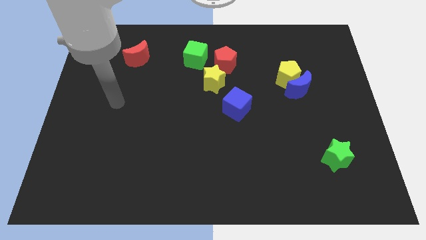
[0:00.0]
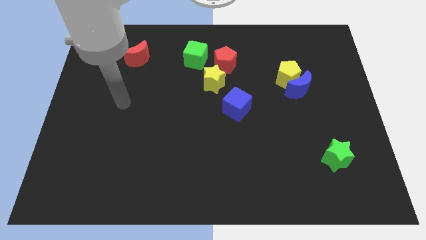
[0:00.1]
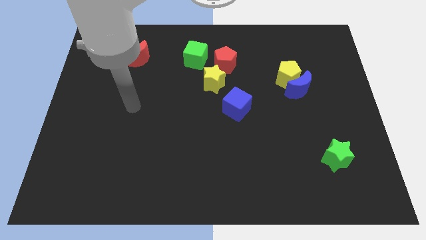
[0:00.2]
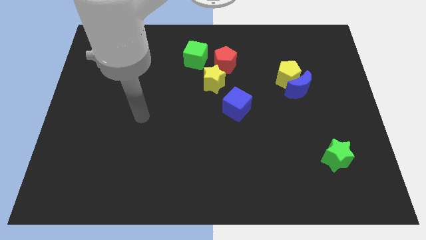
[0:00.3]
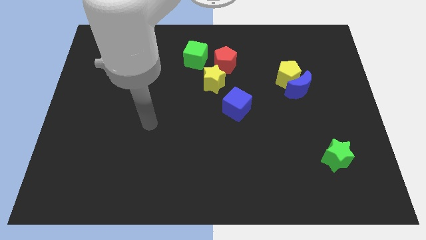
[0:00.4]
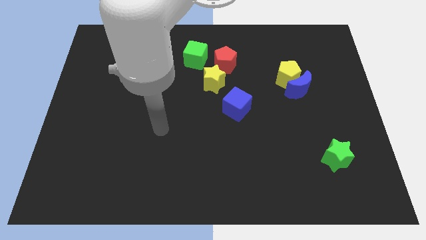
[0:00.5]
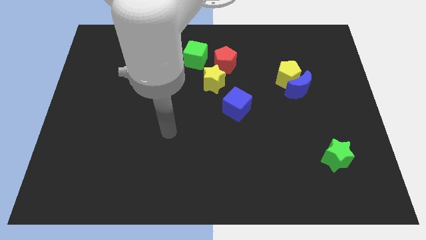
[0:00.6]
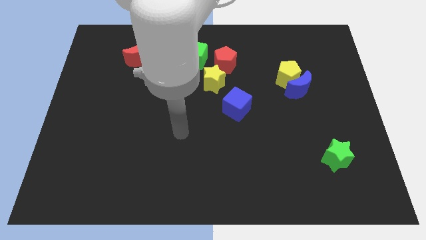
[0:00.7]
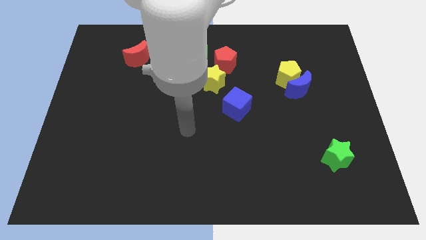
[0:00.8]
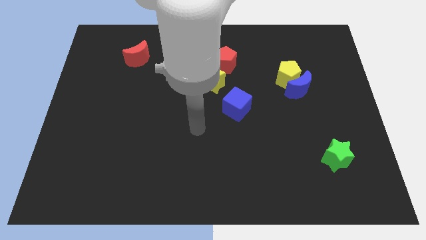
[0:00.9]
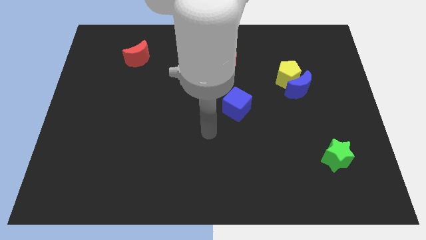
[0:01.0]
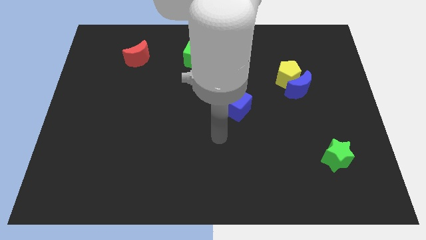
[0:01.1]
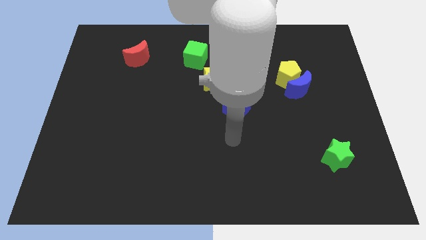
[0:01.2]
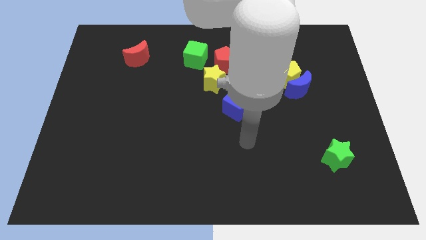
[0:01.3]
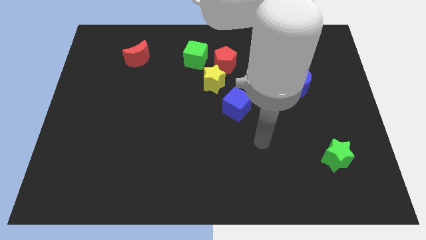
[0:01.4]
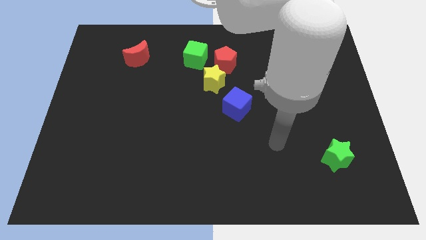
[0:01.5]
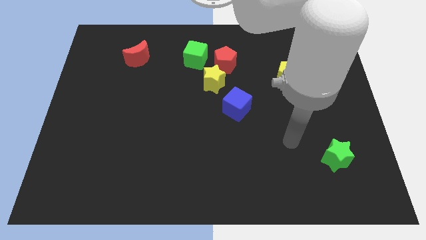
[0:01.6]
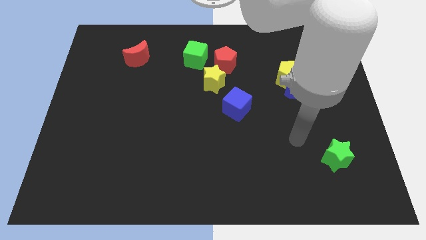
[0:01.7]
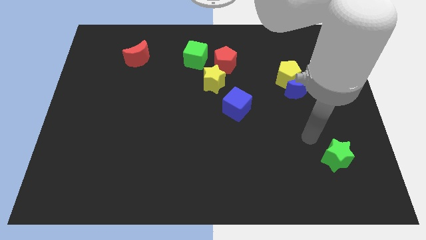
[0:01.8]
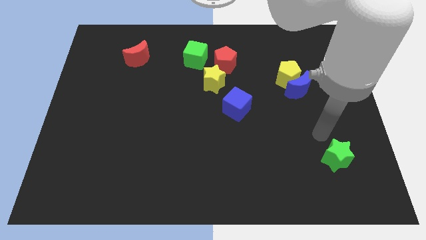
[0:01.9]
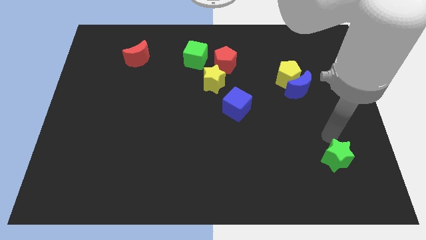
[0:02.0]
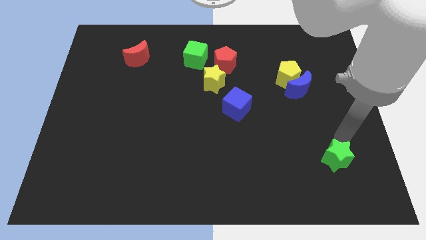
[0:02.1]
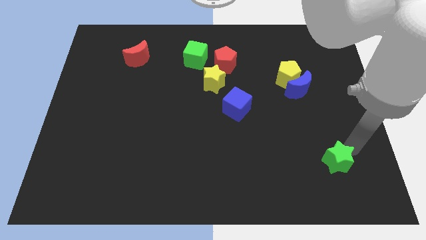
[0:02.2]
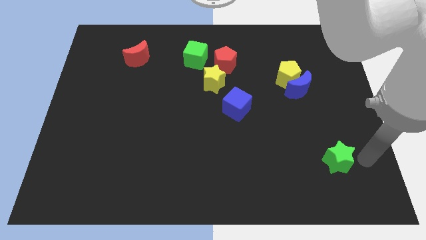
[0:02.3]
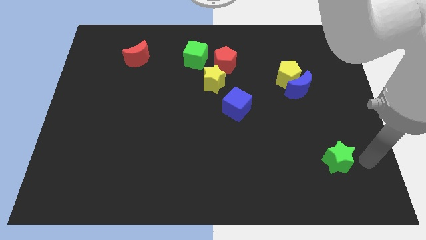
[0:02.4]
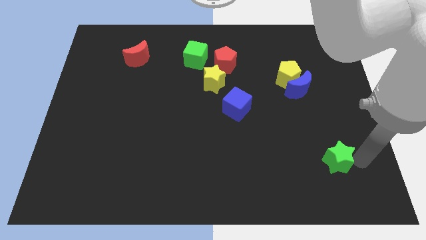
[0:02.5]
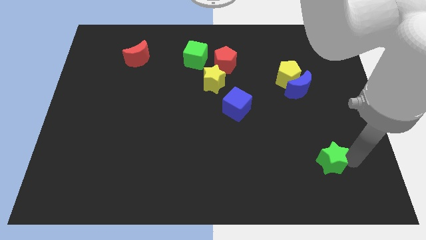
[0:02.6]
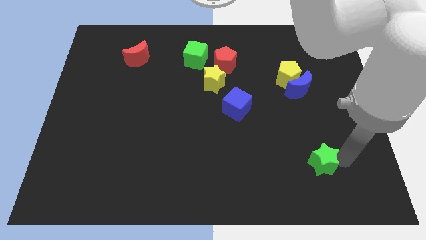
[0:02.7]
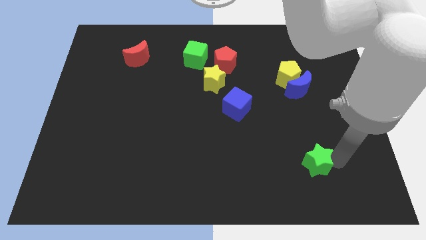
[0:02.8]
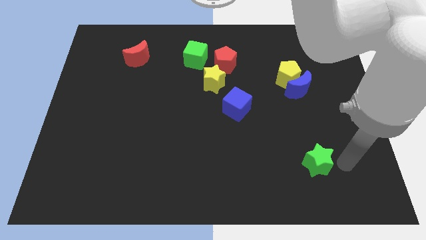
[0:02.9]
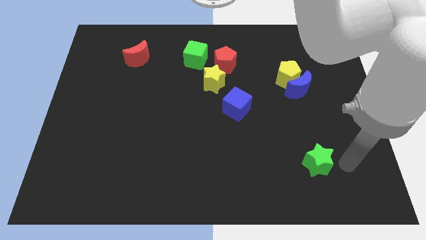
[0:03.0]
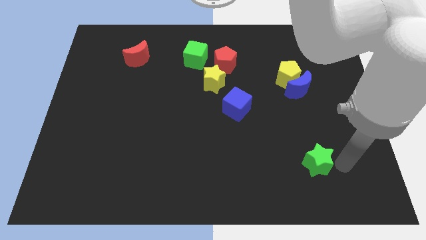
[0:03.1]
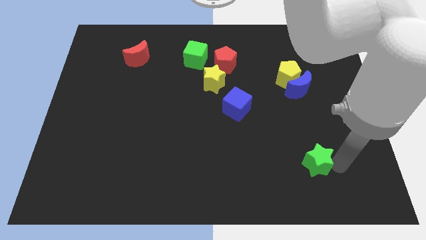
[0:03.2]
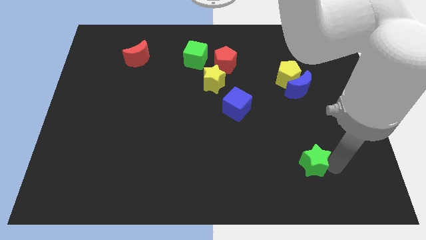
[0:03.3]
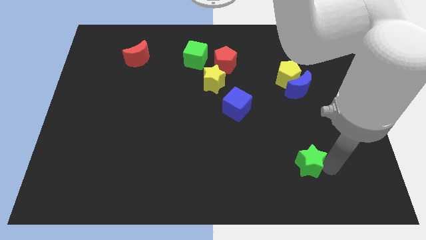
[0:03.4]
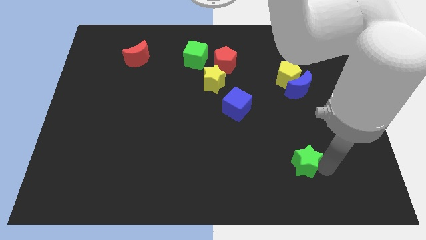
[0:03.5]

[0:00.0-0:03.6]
push the green star left somewhat

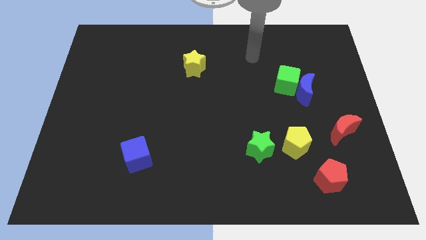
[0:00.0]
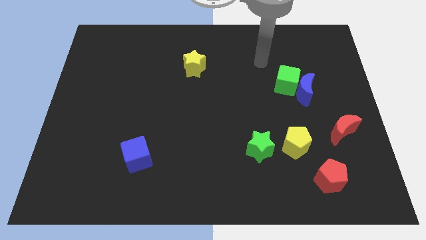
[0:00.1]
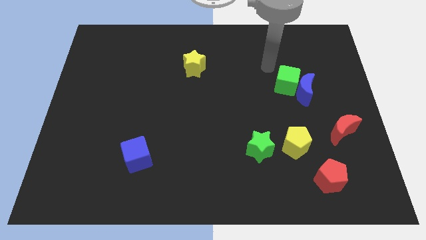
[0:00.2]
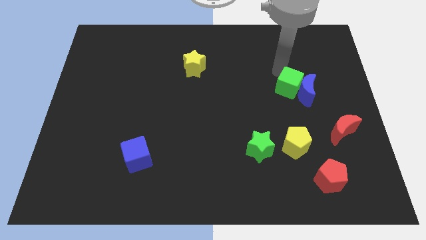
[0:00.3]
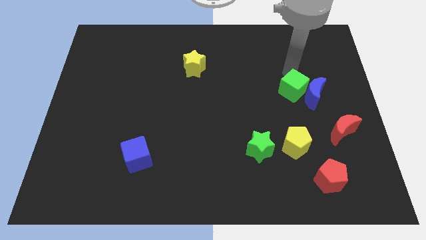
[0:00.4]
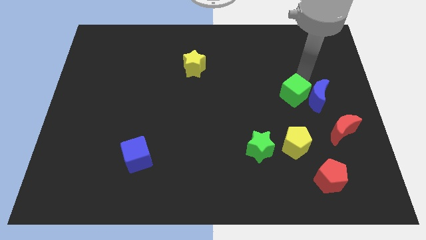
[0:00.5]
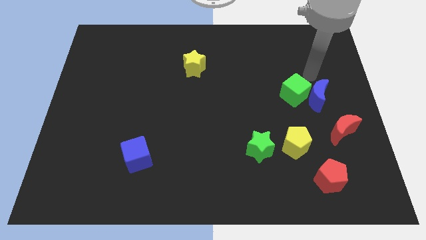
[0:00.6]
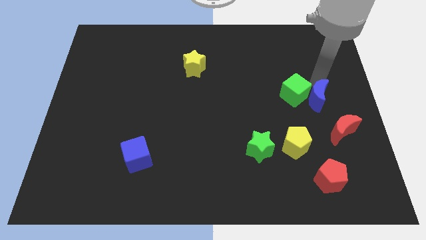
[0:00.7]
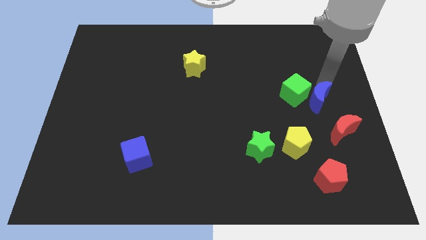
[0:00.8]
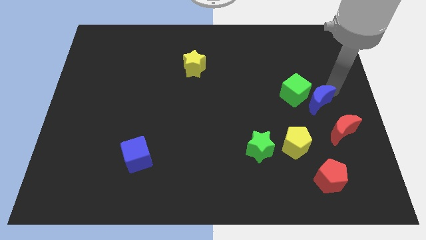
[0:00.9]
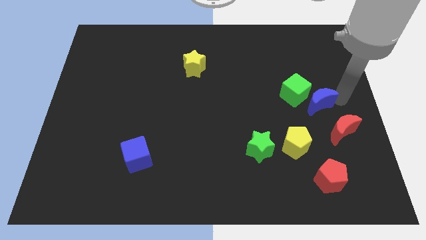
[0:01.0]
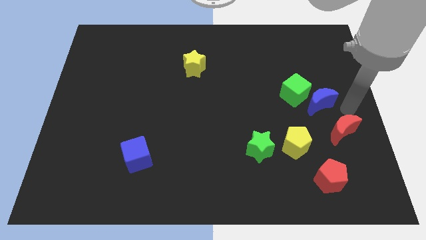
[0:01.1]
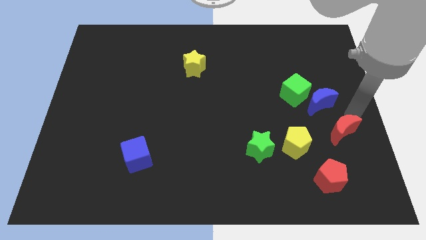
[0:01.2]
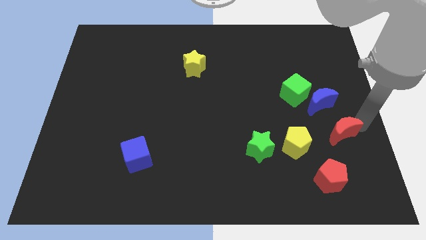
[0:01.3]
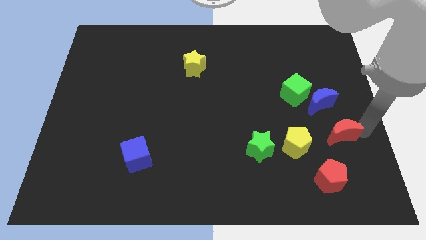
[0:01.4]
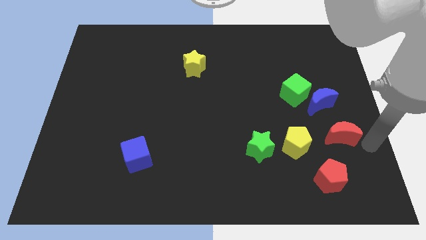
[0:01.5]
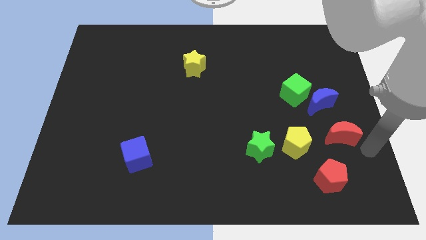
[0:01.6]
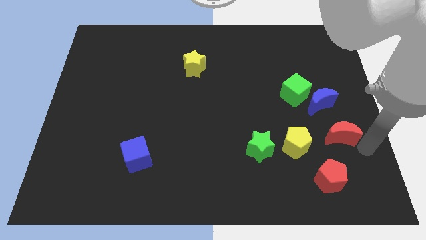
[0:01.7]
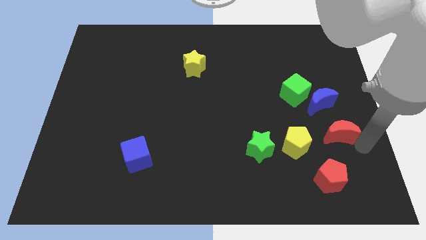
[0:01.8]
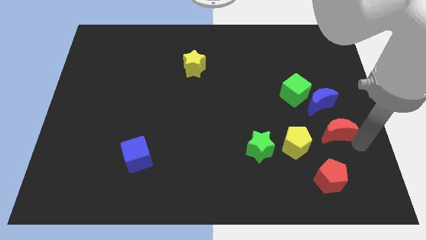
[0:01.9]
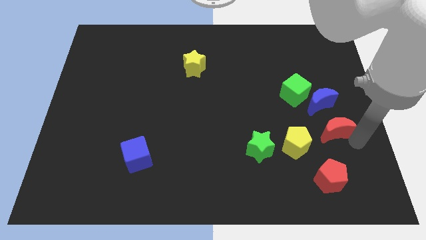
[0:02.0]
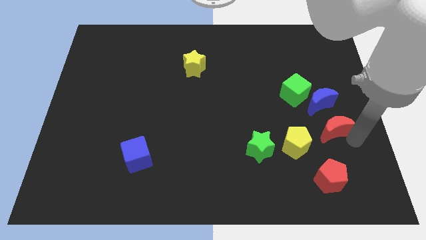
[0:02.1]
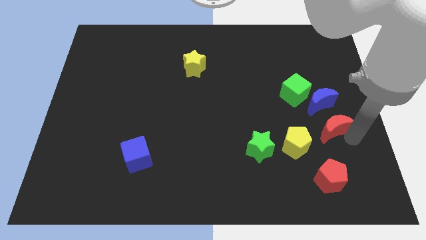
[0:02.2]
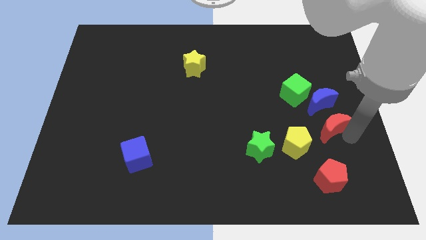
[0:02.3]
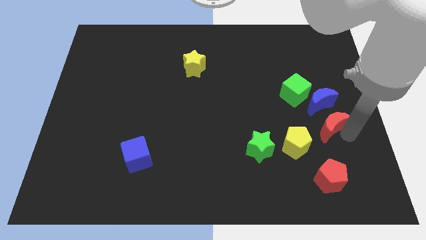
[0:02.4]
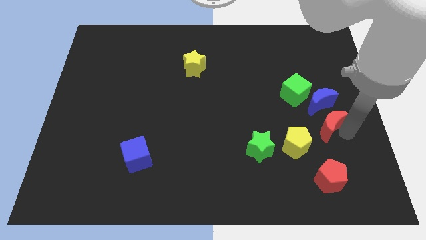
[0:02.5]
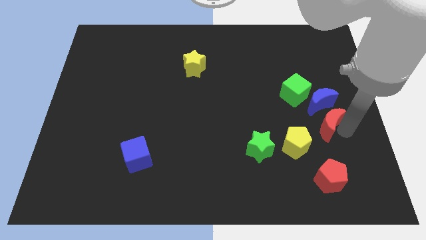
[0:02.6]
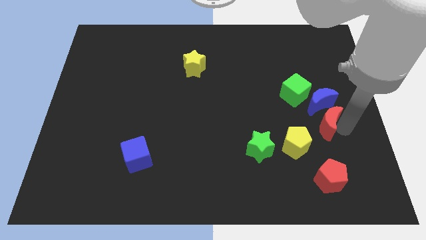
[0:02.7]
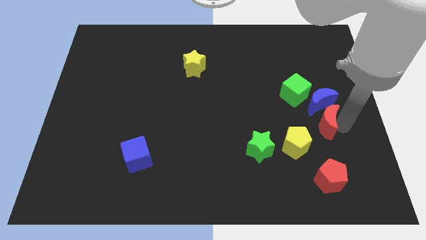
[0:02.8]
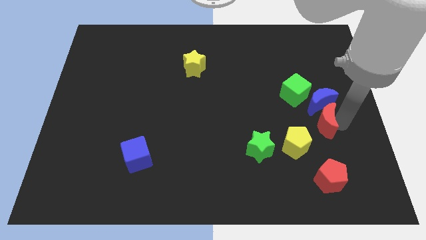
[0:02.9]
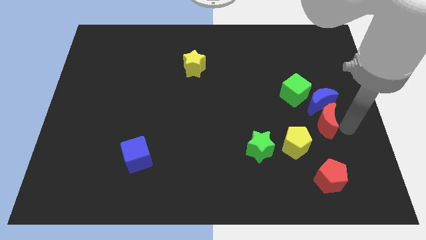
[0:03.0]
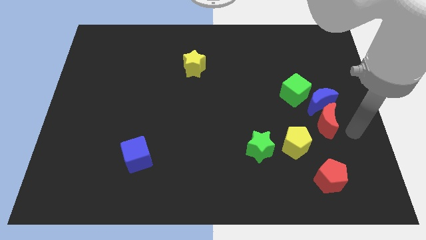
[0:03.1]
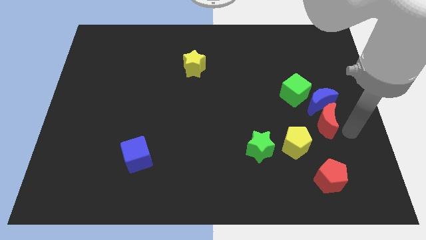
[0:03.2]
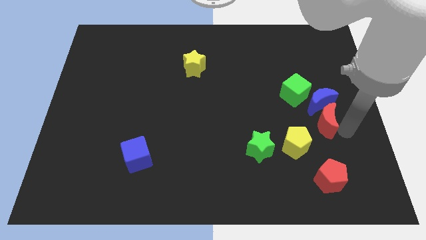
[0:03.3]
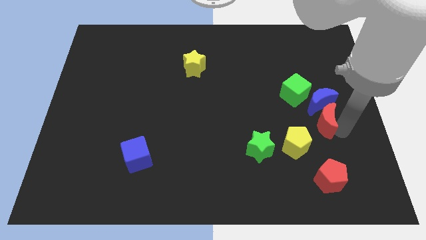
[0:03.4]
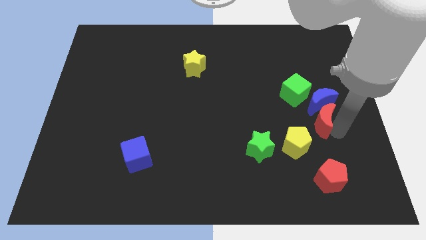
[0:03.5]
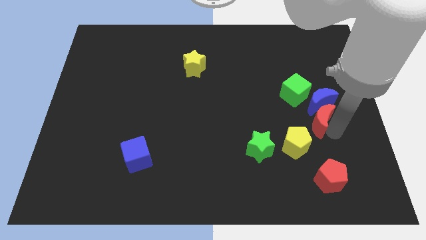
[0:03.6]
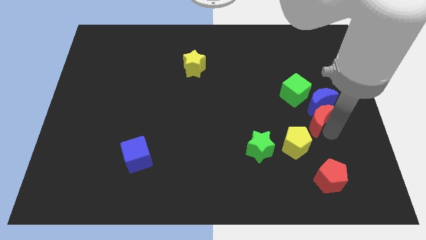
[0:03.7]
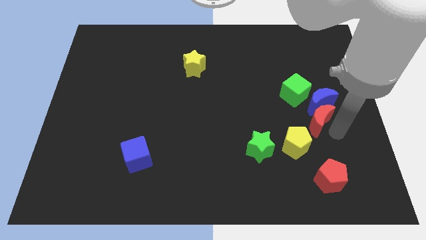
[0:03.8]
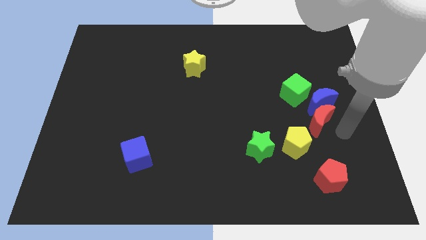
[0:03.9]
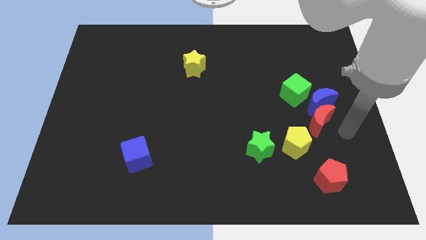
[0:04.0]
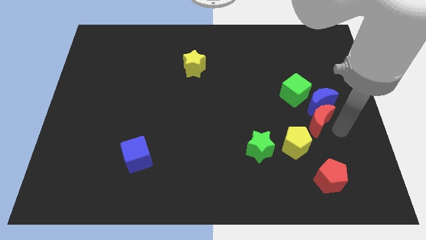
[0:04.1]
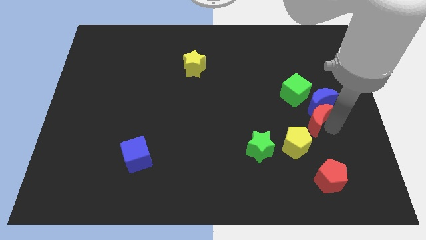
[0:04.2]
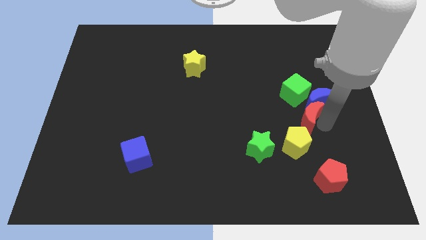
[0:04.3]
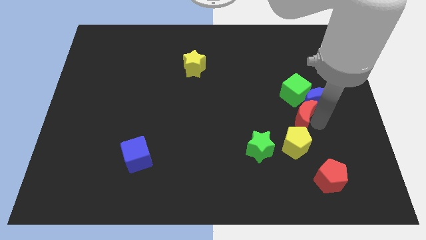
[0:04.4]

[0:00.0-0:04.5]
slightly move the red moon left
